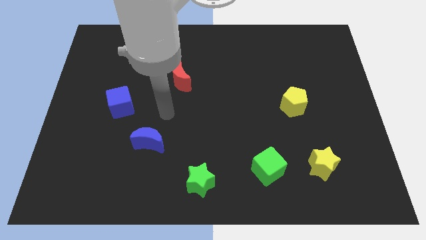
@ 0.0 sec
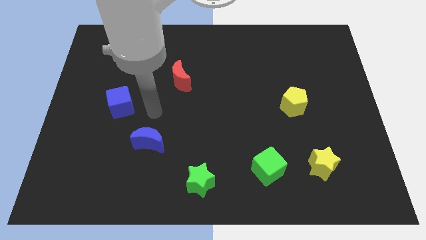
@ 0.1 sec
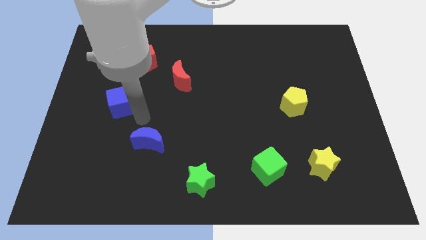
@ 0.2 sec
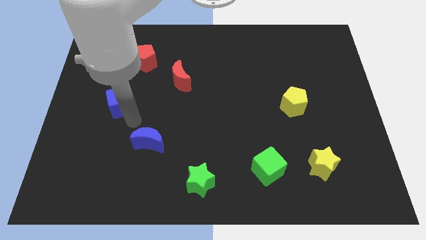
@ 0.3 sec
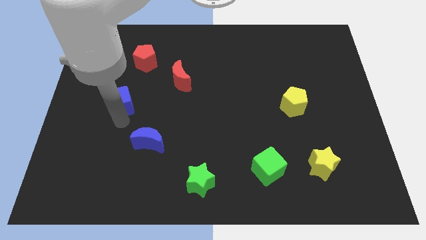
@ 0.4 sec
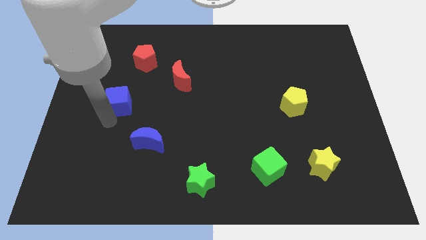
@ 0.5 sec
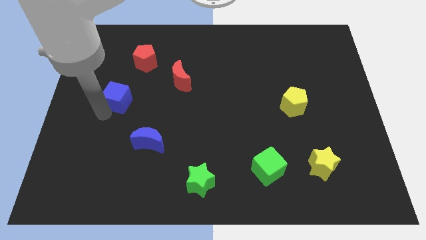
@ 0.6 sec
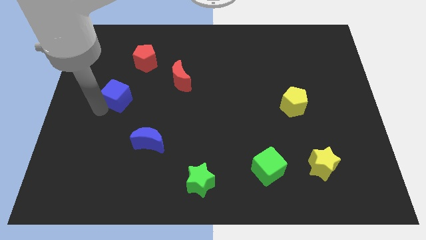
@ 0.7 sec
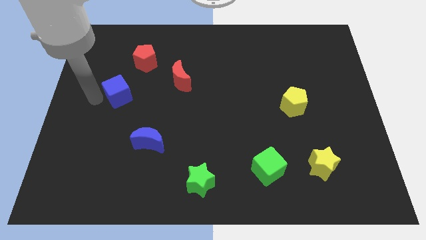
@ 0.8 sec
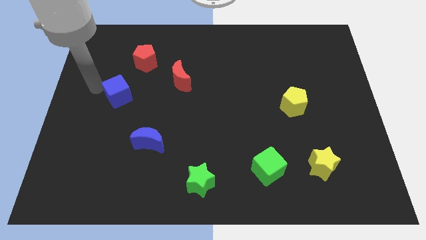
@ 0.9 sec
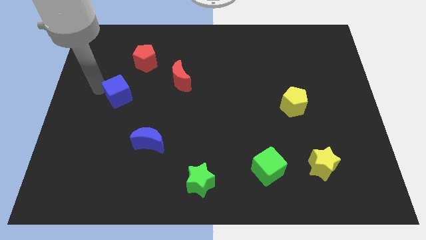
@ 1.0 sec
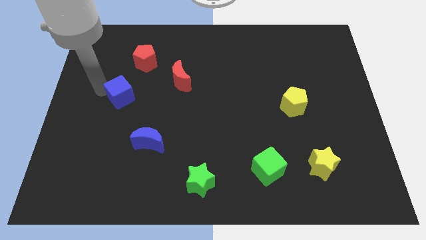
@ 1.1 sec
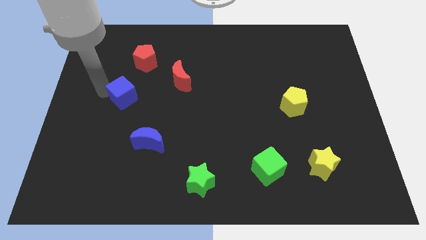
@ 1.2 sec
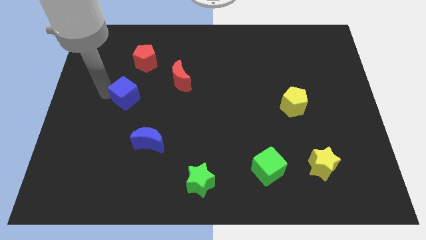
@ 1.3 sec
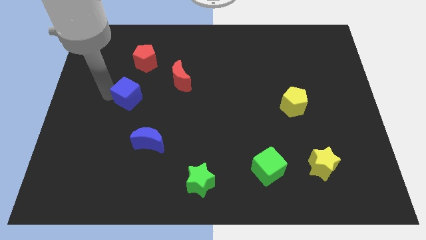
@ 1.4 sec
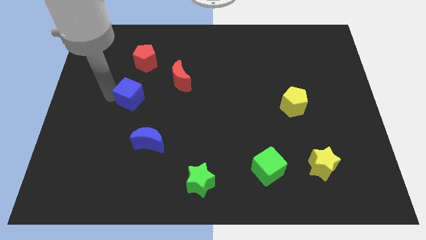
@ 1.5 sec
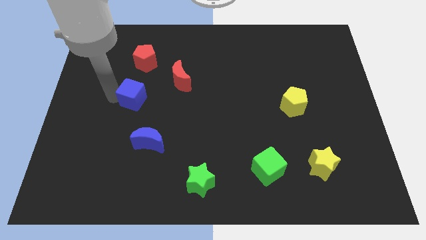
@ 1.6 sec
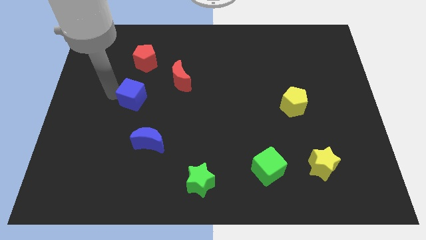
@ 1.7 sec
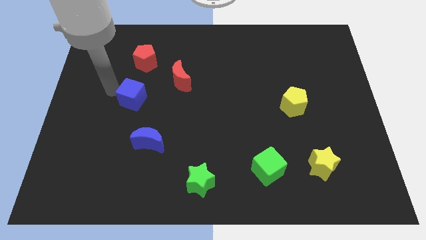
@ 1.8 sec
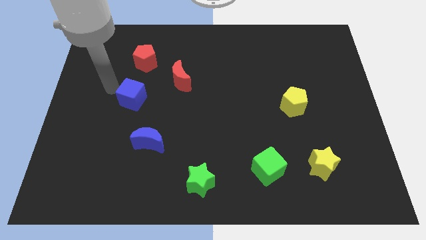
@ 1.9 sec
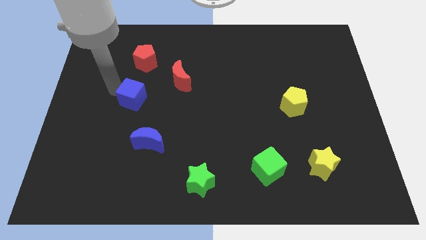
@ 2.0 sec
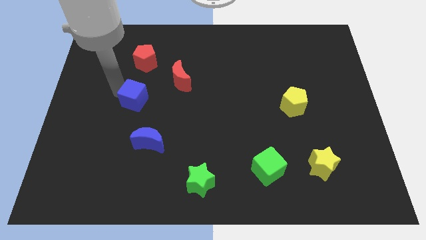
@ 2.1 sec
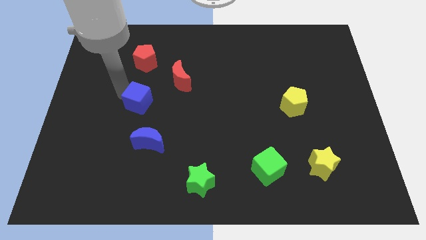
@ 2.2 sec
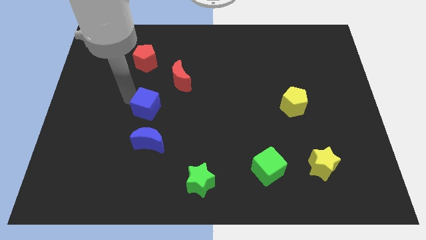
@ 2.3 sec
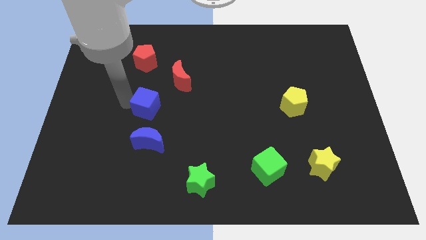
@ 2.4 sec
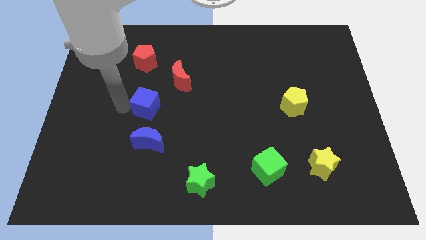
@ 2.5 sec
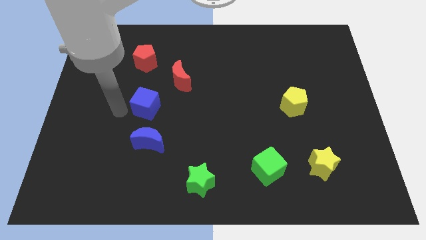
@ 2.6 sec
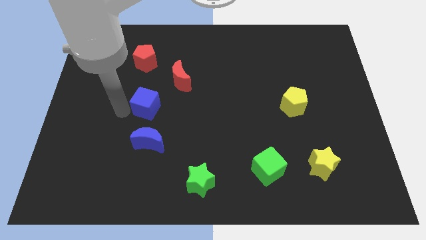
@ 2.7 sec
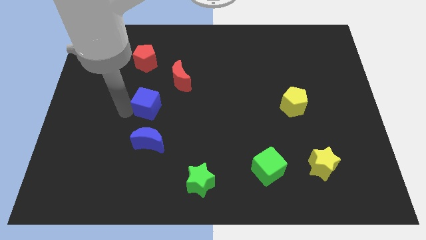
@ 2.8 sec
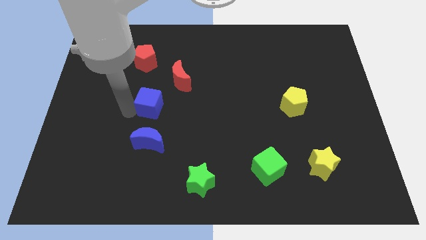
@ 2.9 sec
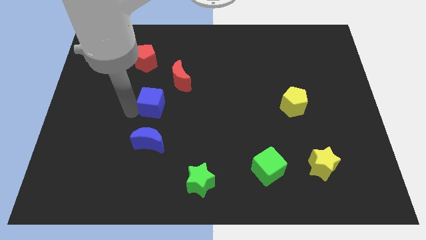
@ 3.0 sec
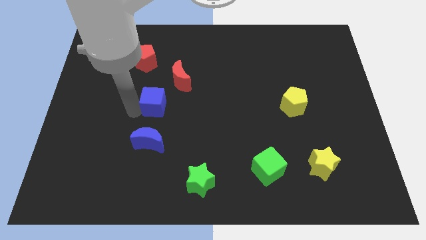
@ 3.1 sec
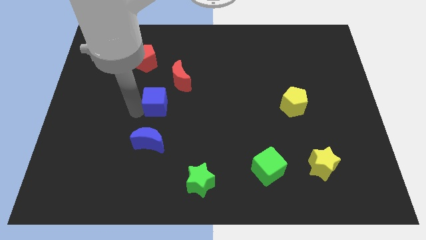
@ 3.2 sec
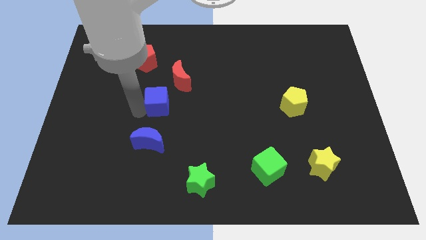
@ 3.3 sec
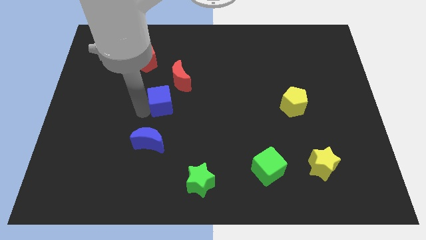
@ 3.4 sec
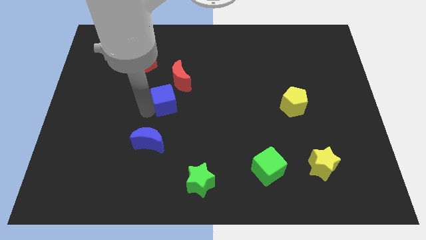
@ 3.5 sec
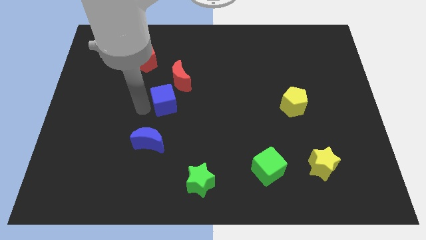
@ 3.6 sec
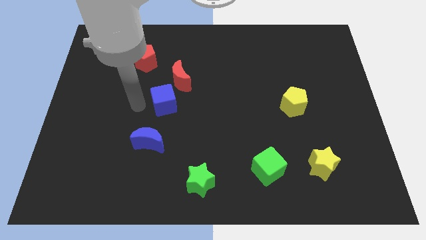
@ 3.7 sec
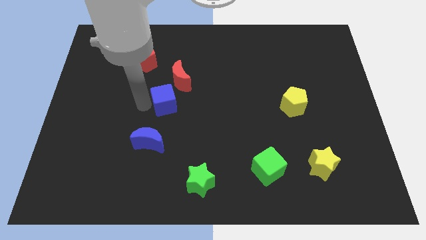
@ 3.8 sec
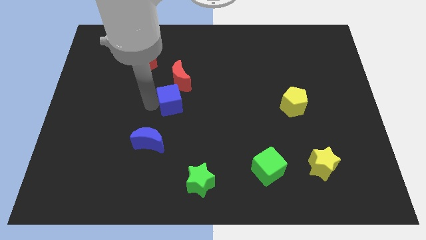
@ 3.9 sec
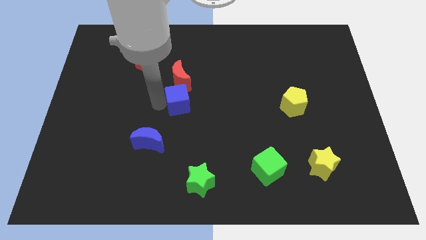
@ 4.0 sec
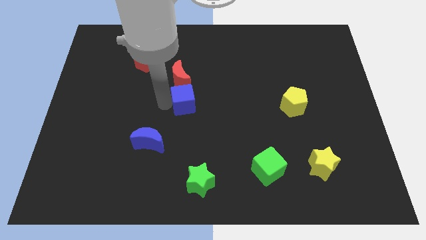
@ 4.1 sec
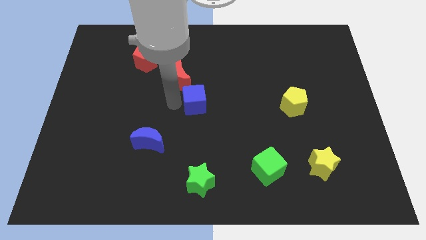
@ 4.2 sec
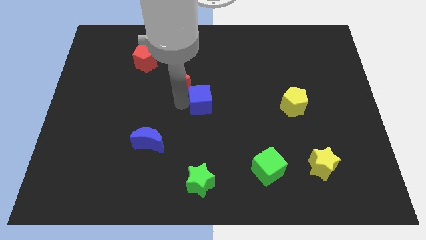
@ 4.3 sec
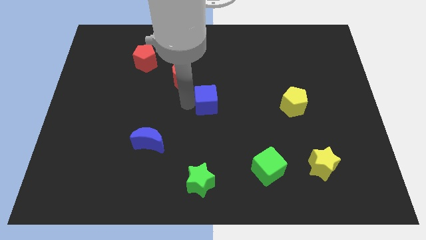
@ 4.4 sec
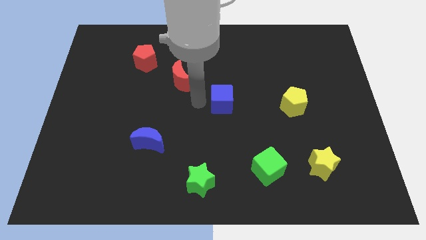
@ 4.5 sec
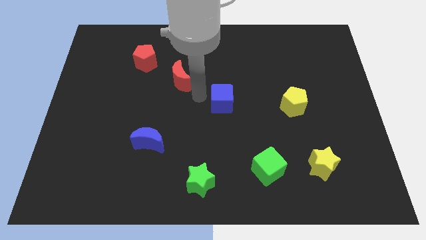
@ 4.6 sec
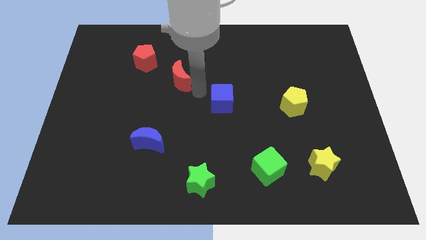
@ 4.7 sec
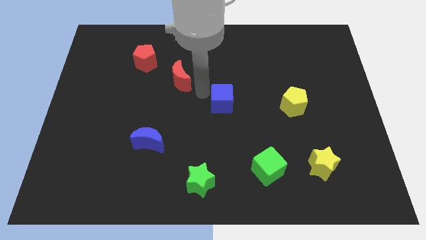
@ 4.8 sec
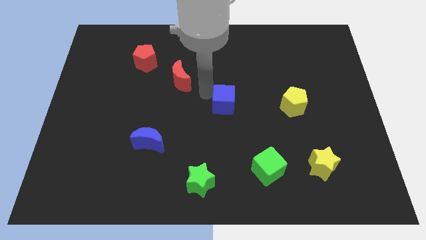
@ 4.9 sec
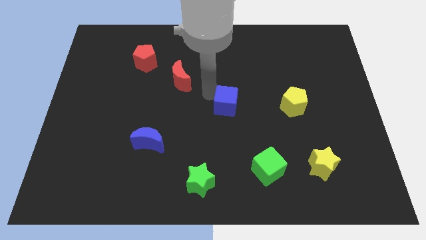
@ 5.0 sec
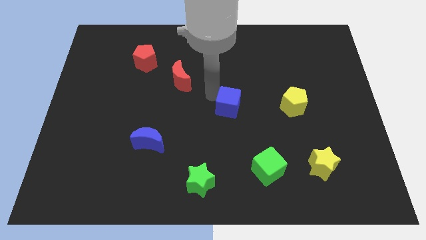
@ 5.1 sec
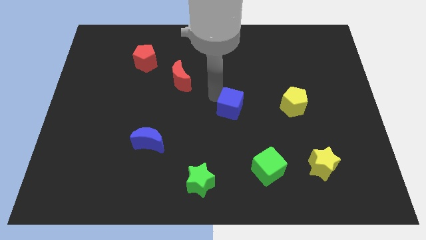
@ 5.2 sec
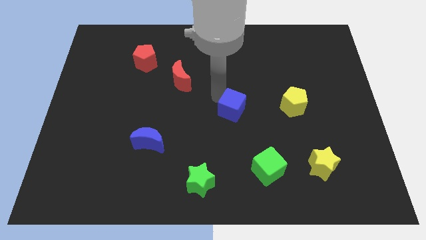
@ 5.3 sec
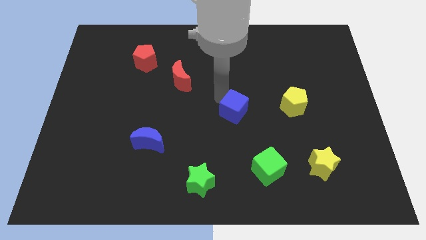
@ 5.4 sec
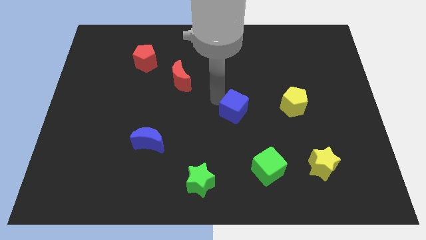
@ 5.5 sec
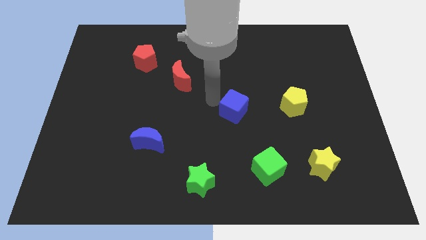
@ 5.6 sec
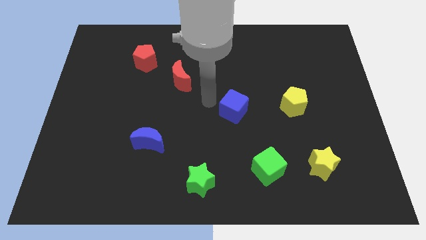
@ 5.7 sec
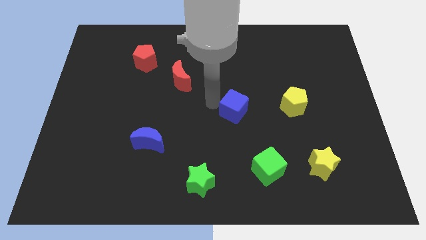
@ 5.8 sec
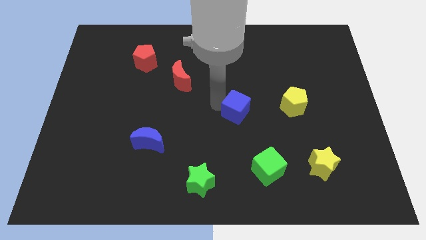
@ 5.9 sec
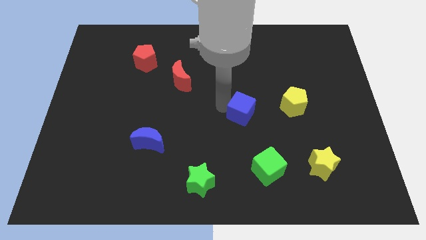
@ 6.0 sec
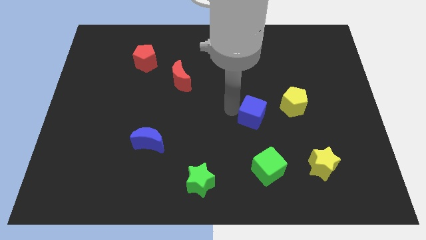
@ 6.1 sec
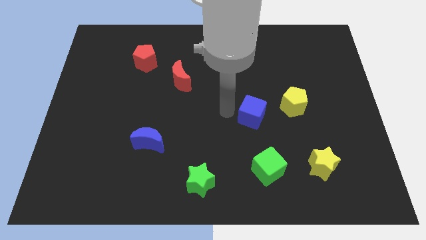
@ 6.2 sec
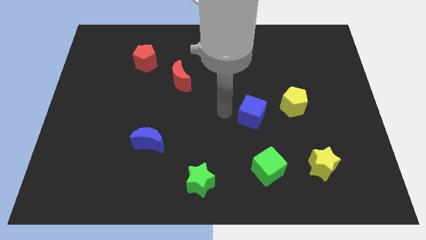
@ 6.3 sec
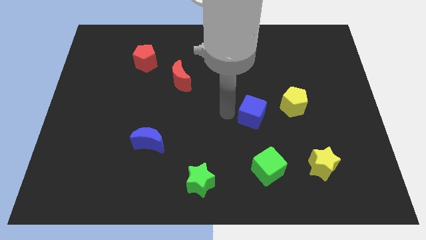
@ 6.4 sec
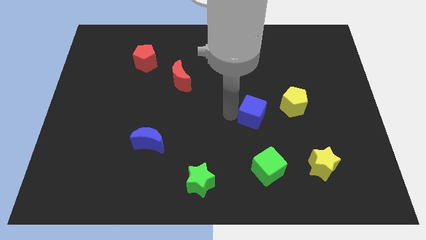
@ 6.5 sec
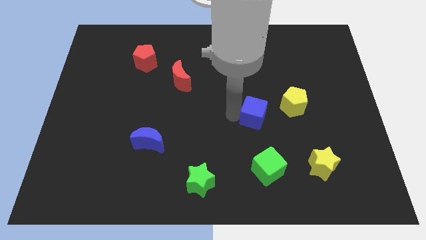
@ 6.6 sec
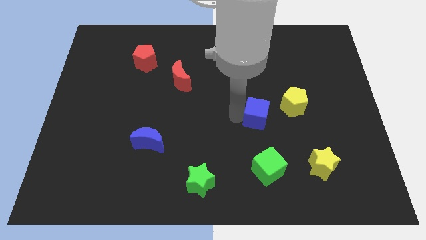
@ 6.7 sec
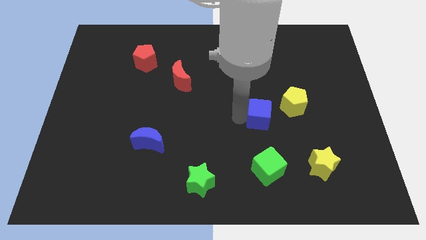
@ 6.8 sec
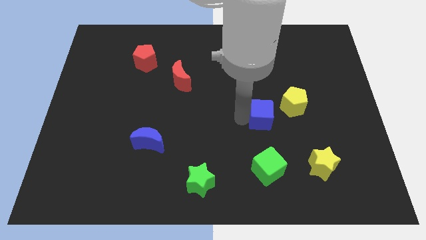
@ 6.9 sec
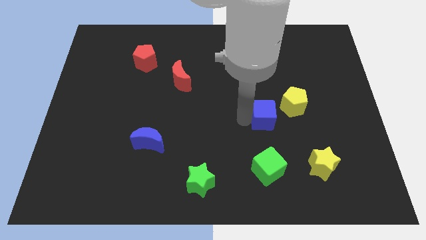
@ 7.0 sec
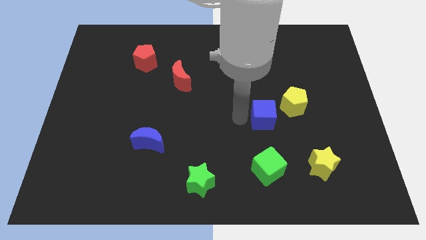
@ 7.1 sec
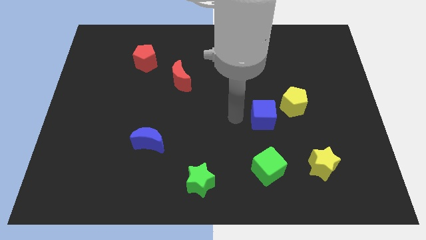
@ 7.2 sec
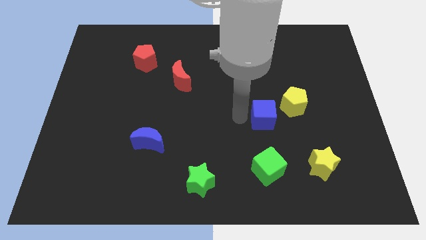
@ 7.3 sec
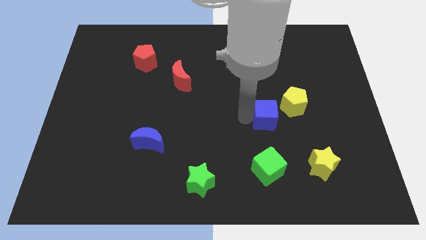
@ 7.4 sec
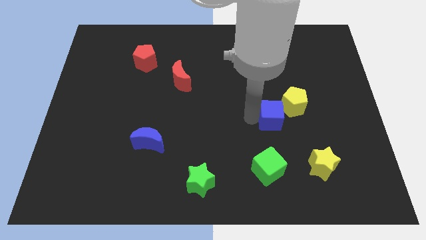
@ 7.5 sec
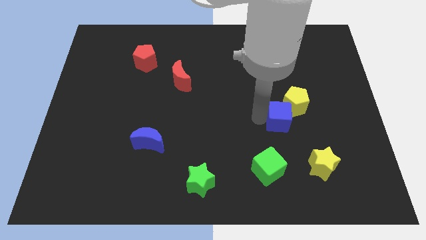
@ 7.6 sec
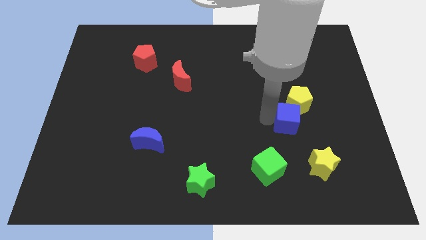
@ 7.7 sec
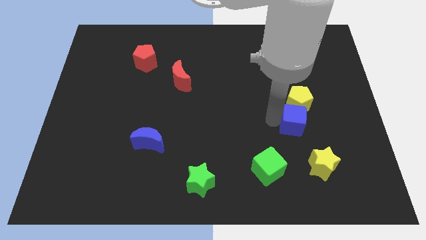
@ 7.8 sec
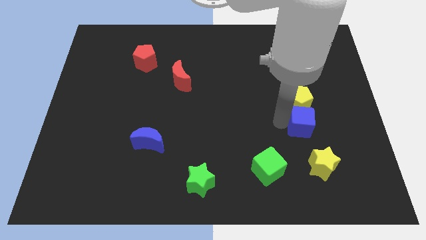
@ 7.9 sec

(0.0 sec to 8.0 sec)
put the blue cube diagonally down and to the right of the yellow pentagon

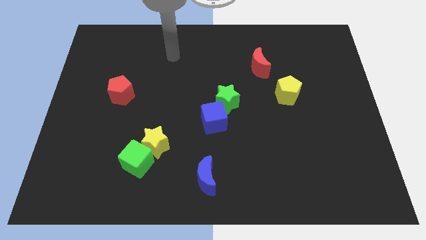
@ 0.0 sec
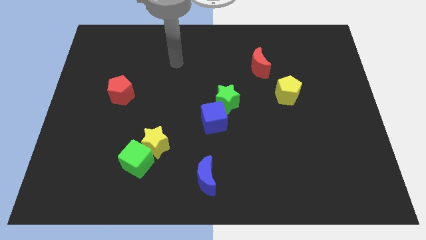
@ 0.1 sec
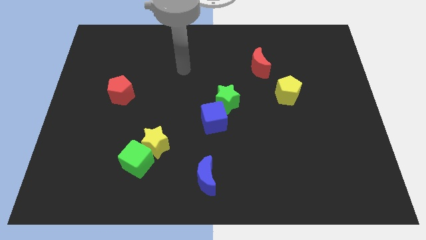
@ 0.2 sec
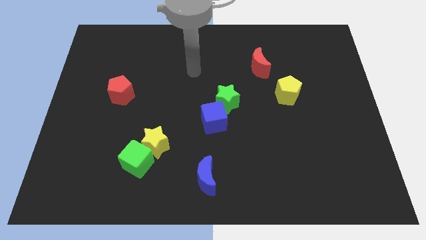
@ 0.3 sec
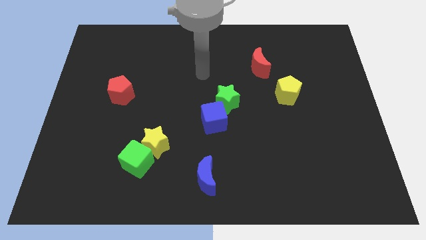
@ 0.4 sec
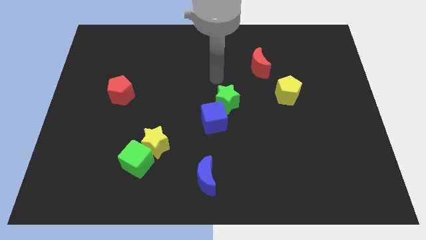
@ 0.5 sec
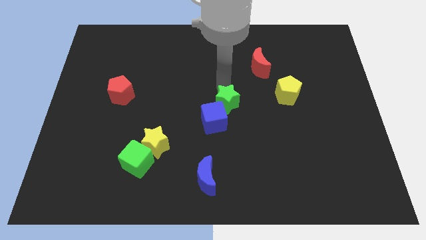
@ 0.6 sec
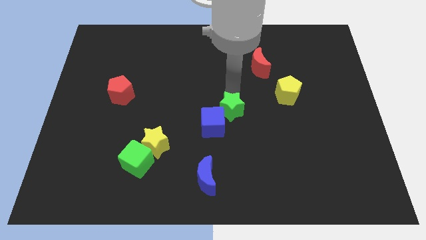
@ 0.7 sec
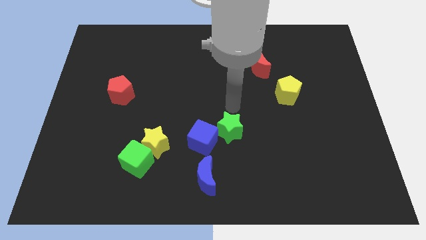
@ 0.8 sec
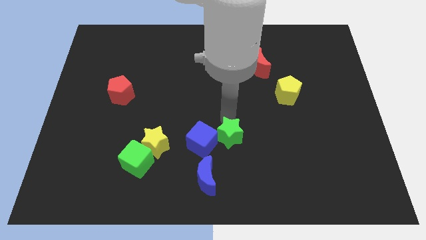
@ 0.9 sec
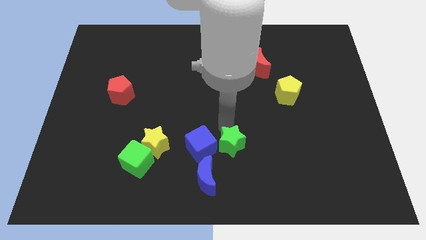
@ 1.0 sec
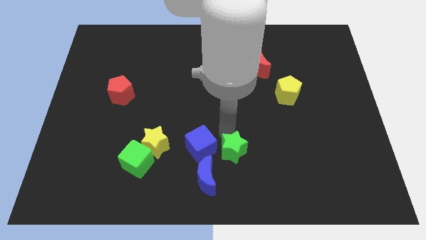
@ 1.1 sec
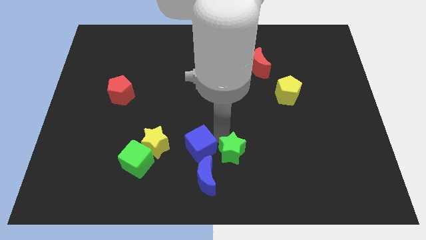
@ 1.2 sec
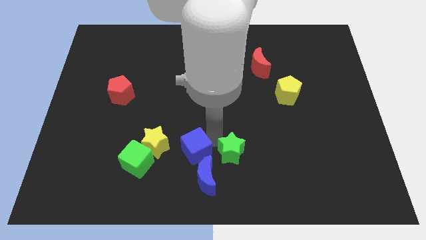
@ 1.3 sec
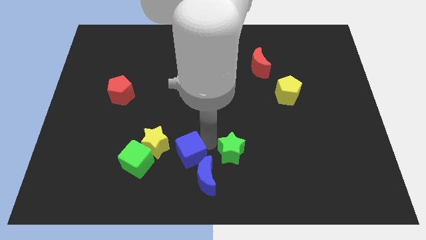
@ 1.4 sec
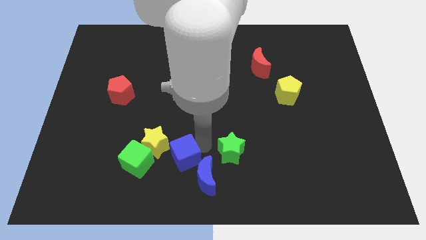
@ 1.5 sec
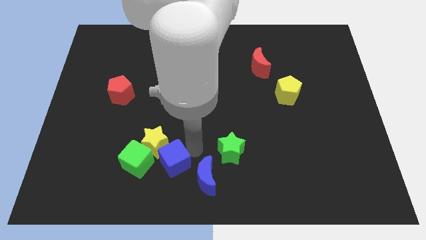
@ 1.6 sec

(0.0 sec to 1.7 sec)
slide the blue cube to the left of the blue moon
